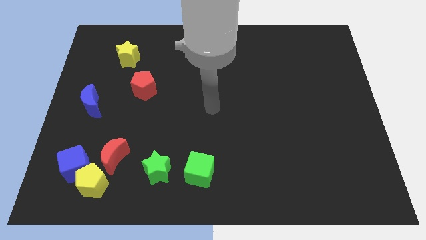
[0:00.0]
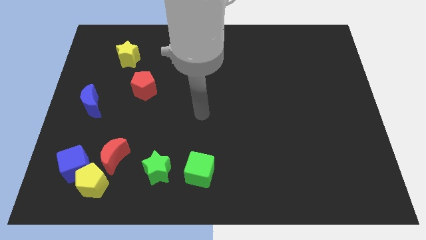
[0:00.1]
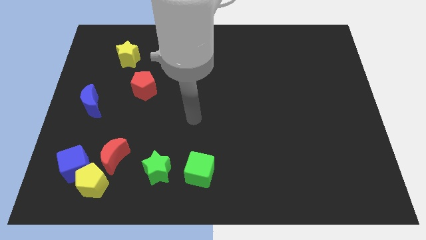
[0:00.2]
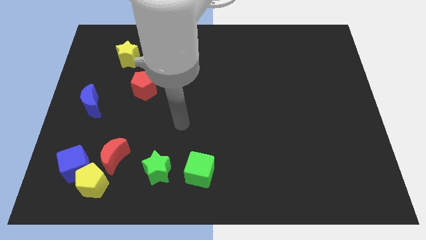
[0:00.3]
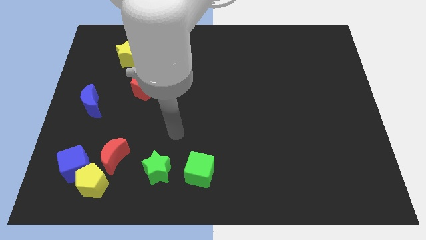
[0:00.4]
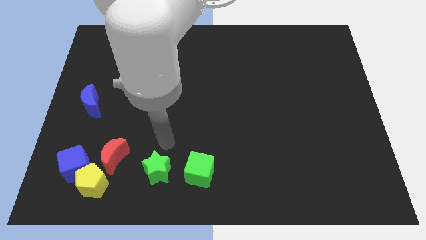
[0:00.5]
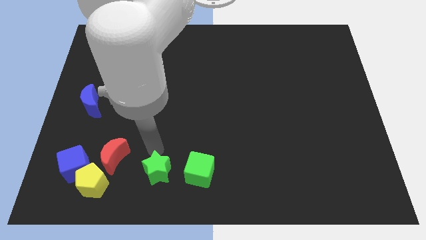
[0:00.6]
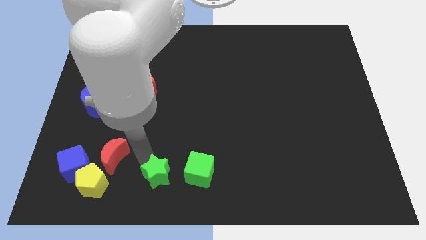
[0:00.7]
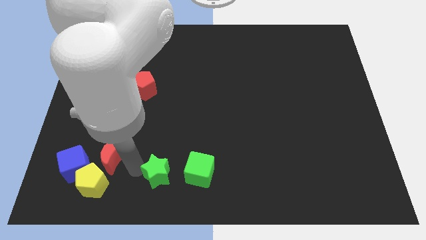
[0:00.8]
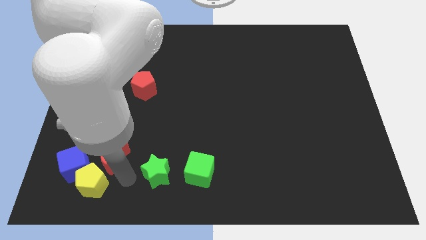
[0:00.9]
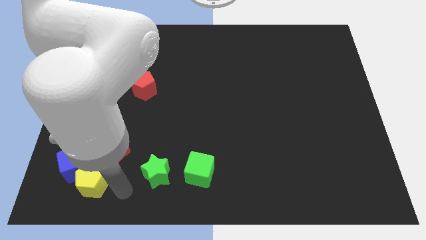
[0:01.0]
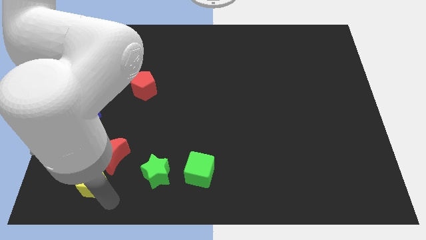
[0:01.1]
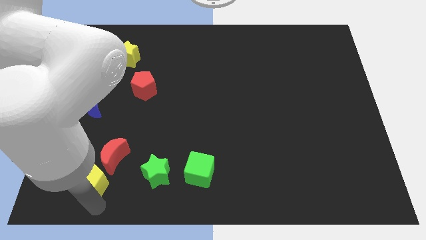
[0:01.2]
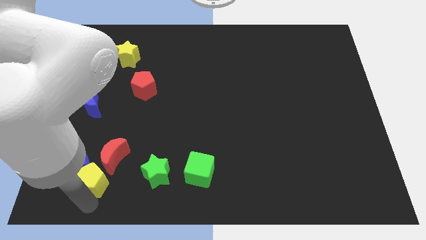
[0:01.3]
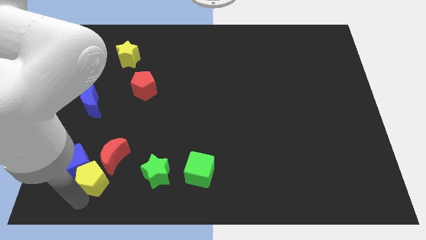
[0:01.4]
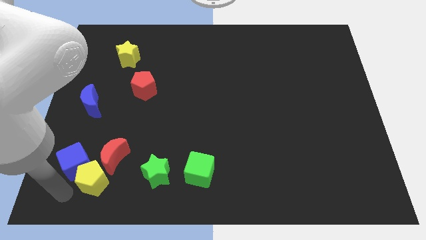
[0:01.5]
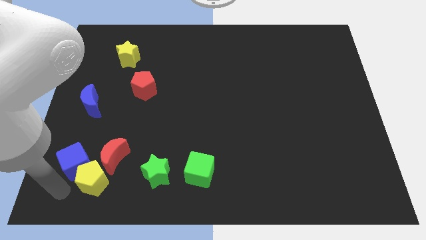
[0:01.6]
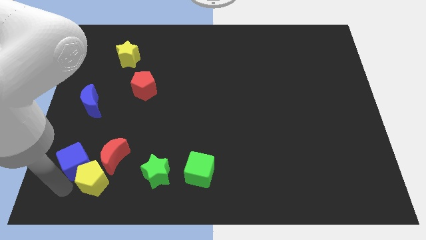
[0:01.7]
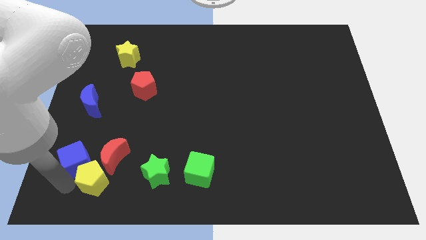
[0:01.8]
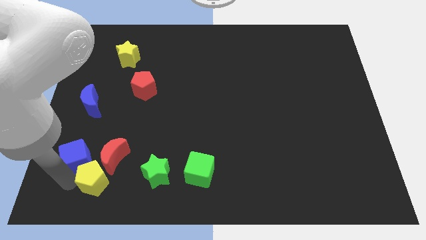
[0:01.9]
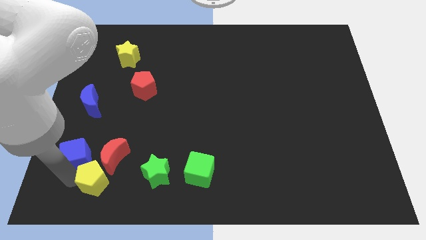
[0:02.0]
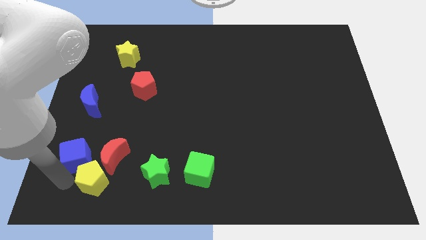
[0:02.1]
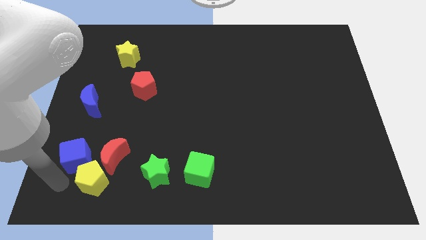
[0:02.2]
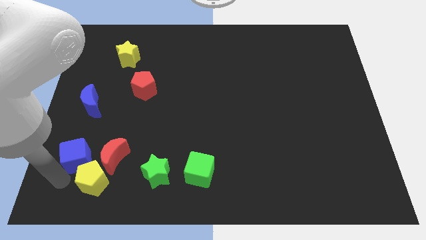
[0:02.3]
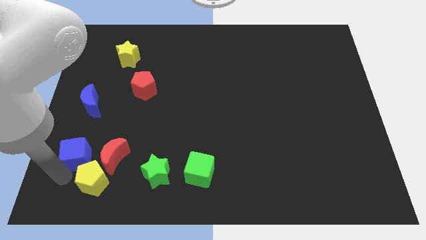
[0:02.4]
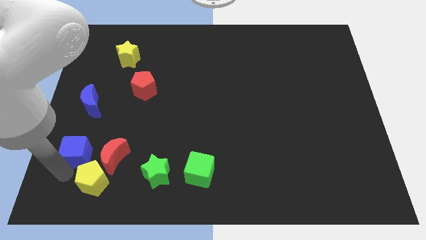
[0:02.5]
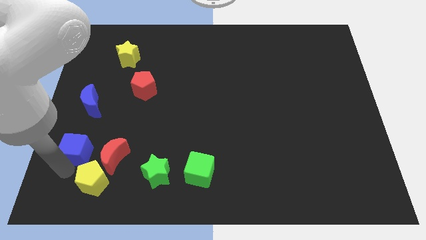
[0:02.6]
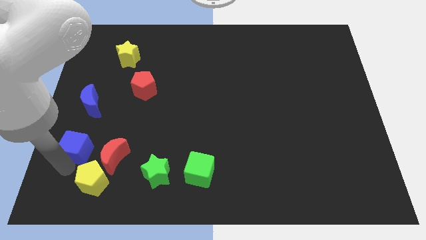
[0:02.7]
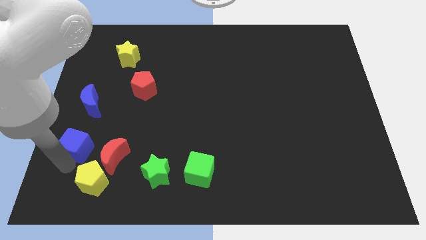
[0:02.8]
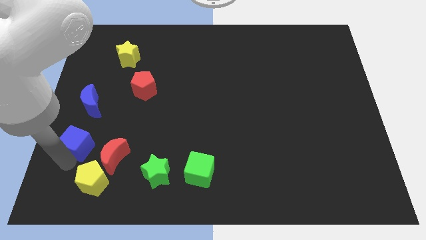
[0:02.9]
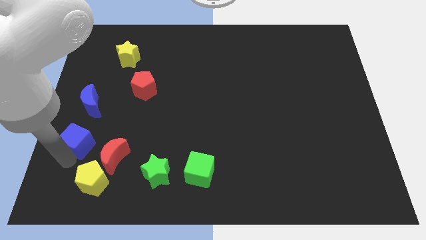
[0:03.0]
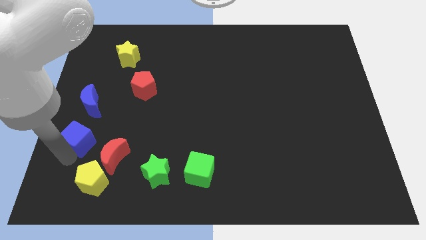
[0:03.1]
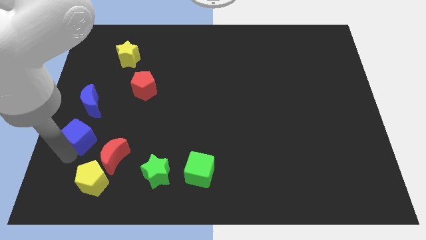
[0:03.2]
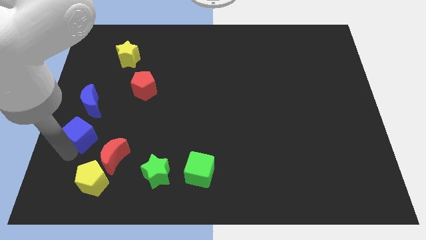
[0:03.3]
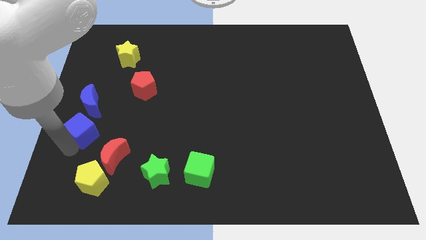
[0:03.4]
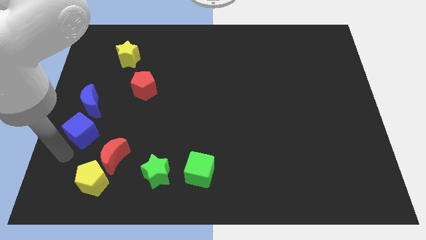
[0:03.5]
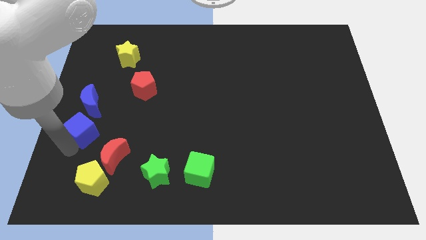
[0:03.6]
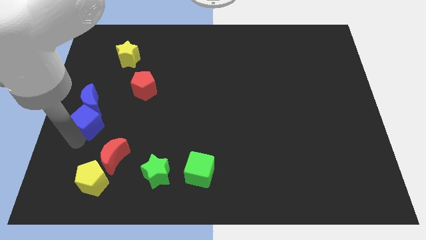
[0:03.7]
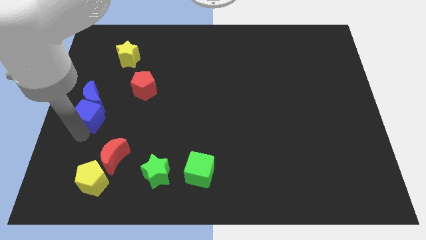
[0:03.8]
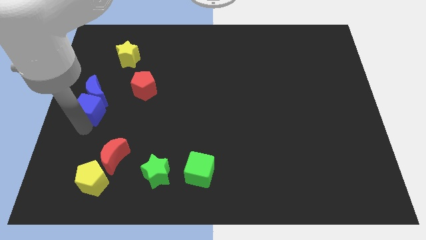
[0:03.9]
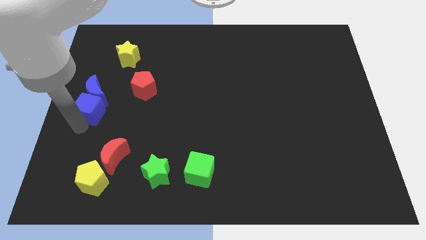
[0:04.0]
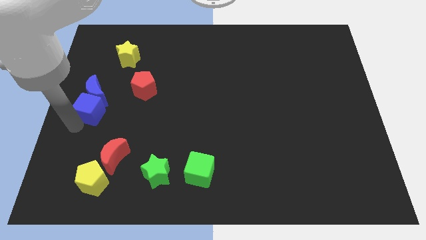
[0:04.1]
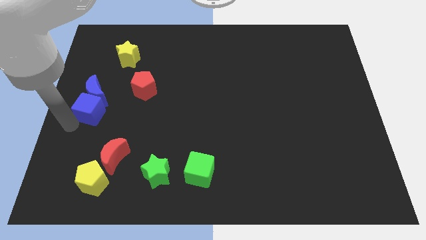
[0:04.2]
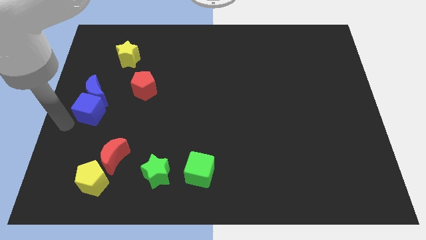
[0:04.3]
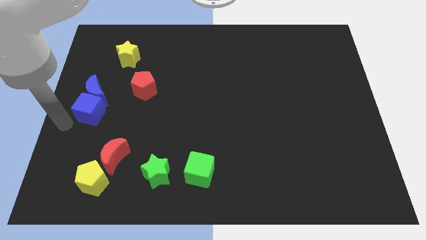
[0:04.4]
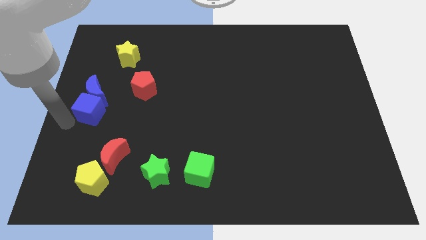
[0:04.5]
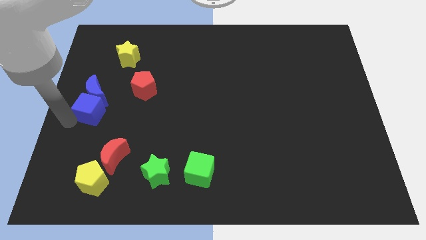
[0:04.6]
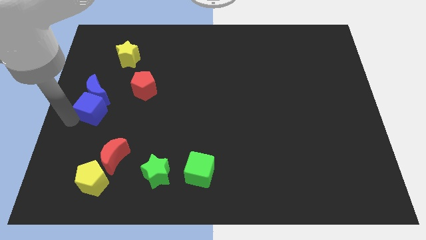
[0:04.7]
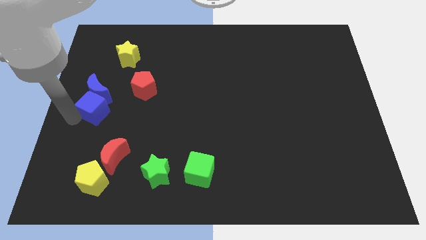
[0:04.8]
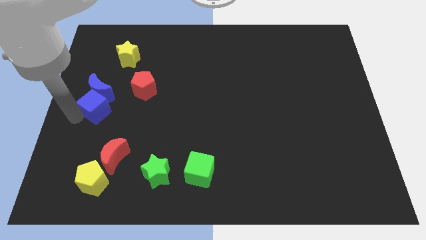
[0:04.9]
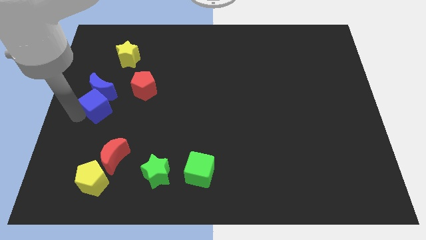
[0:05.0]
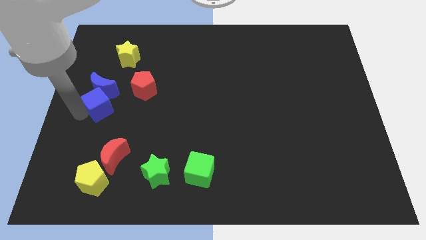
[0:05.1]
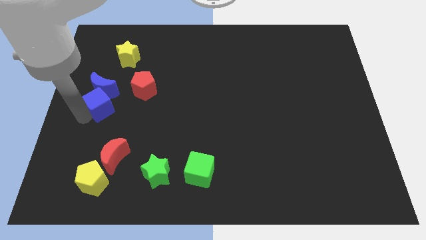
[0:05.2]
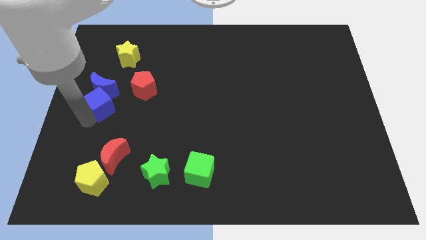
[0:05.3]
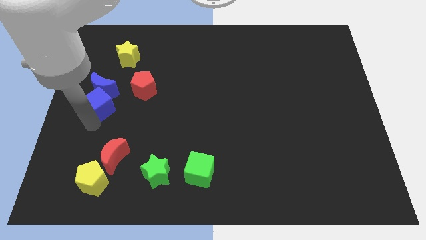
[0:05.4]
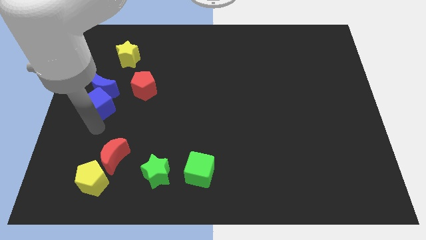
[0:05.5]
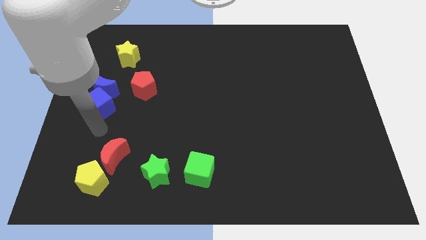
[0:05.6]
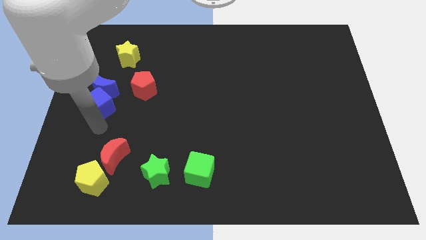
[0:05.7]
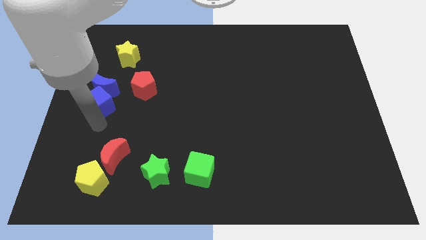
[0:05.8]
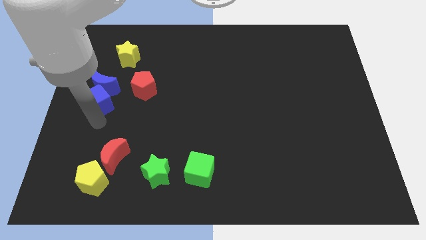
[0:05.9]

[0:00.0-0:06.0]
push the blue cube to the left of the red pentagon

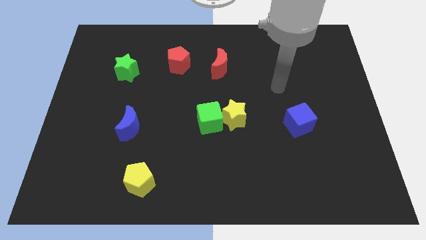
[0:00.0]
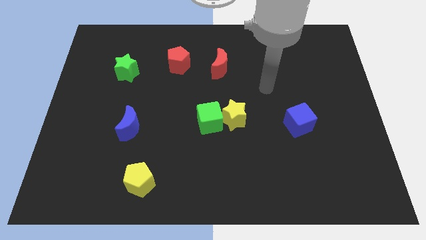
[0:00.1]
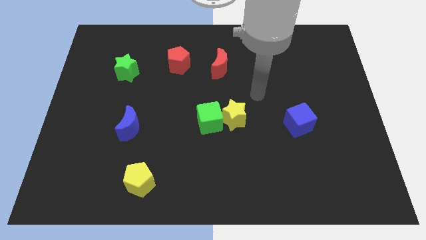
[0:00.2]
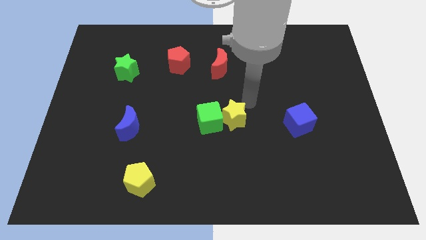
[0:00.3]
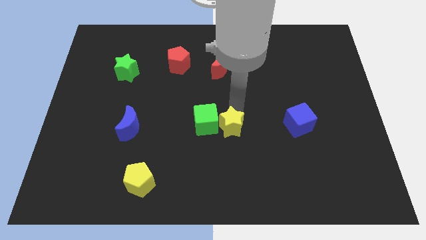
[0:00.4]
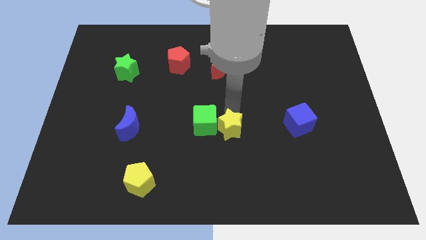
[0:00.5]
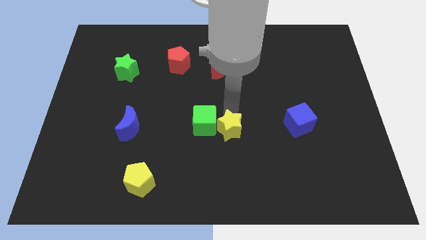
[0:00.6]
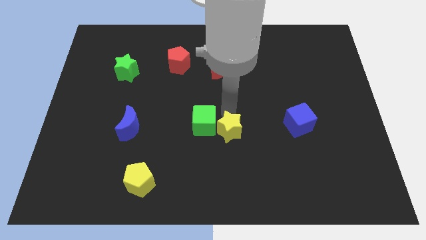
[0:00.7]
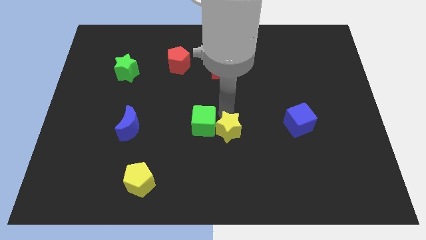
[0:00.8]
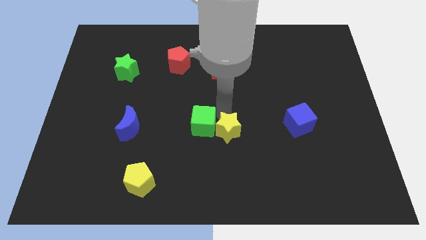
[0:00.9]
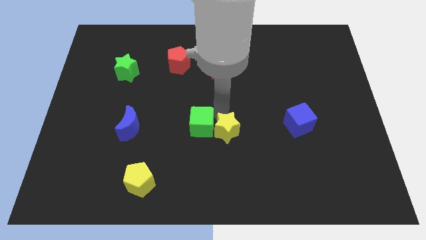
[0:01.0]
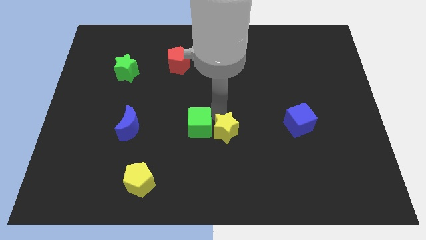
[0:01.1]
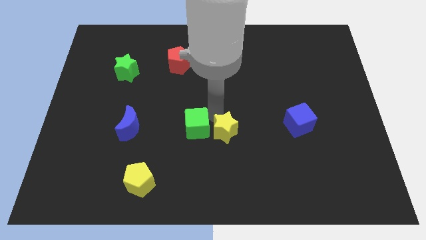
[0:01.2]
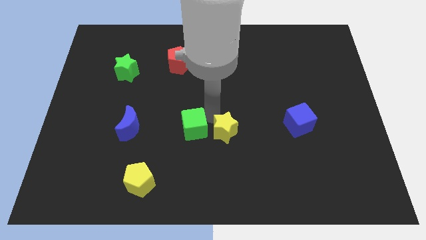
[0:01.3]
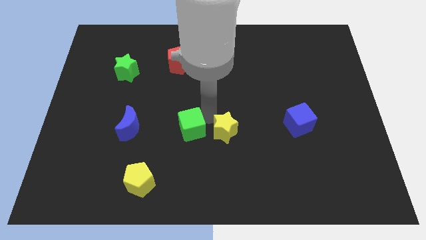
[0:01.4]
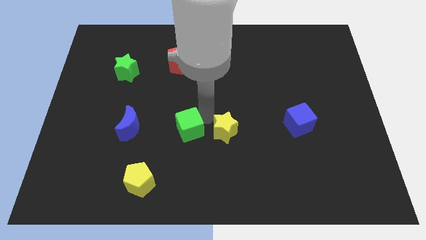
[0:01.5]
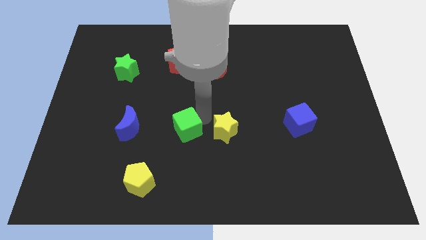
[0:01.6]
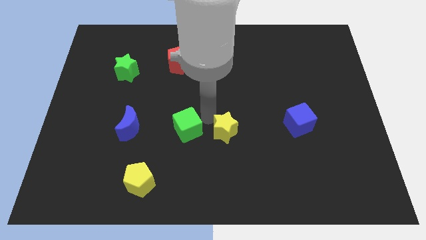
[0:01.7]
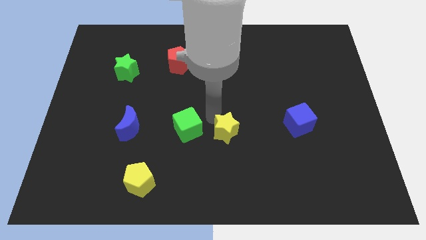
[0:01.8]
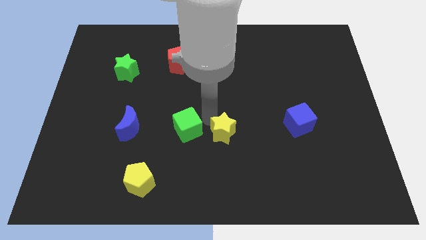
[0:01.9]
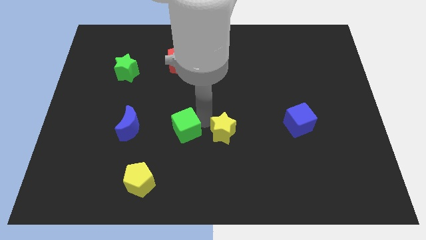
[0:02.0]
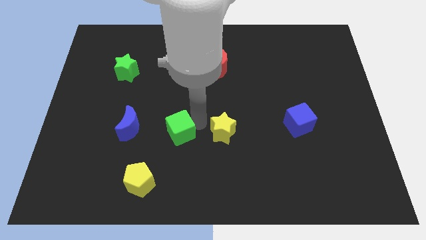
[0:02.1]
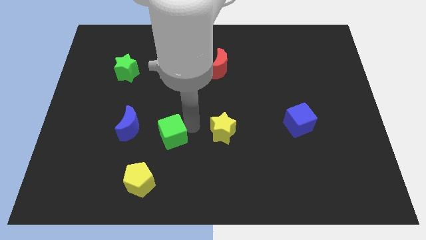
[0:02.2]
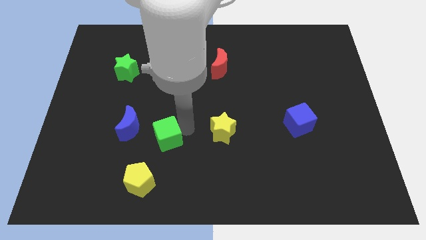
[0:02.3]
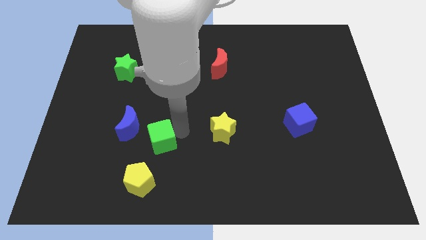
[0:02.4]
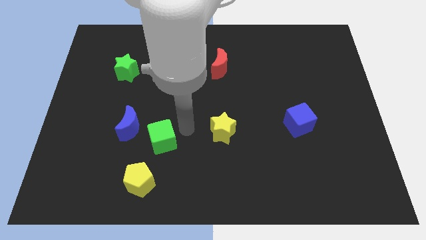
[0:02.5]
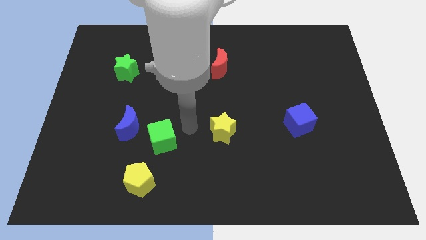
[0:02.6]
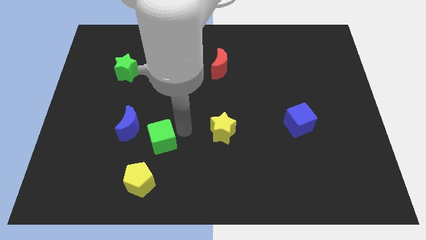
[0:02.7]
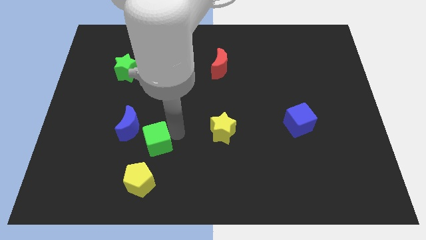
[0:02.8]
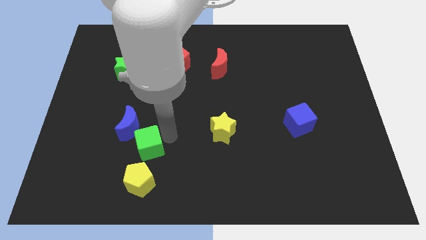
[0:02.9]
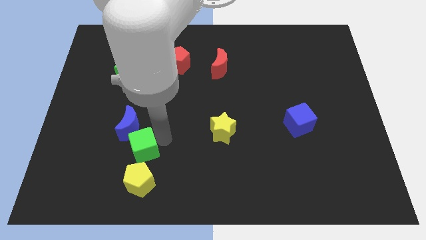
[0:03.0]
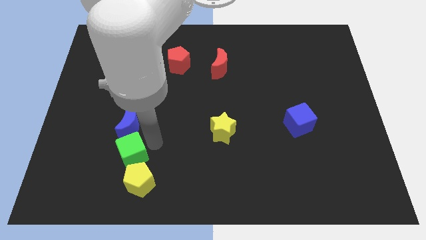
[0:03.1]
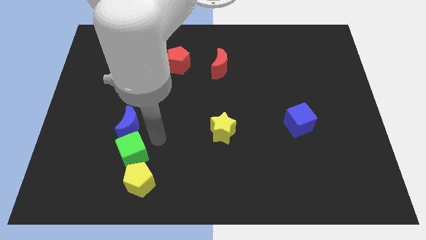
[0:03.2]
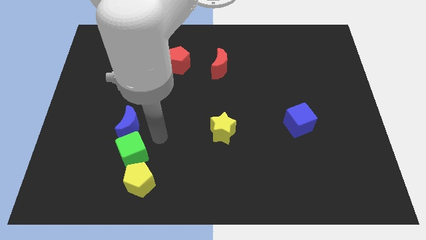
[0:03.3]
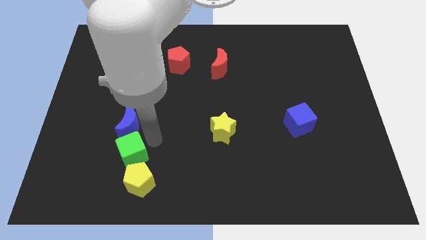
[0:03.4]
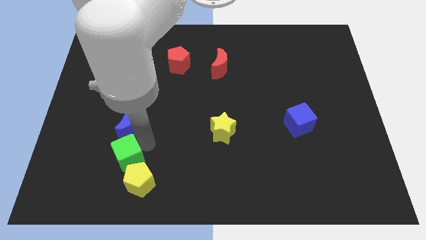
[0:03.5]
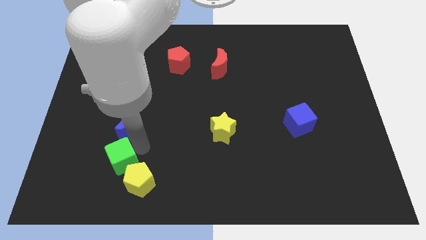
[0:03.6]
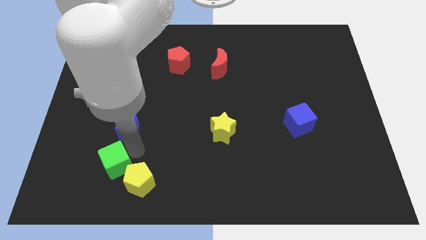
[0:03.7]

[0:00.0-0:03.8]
slide the green cube left of the yellow pentagon
